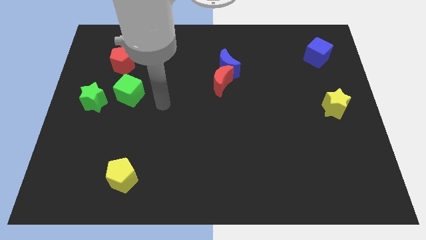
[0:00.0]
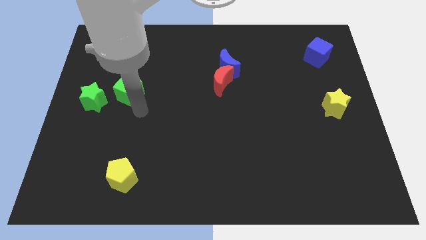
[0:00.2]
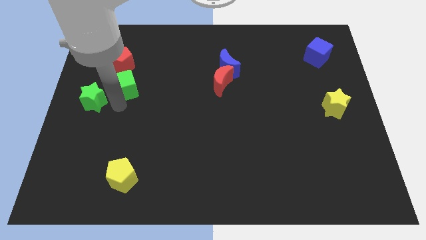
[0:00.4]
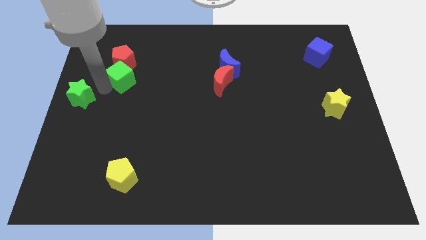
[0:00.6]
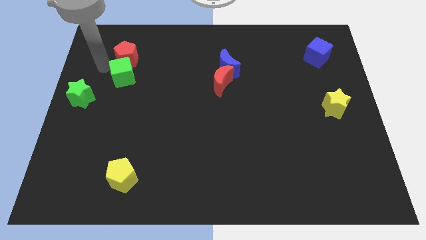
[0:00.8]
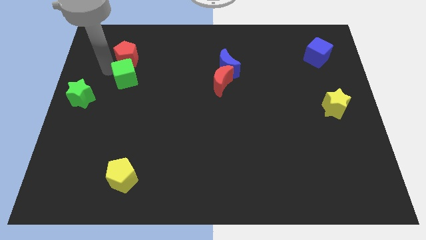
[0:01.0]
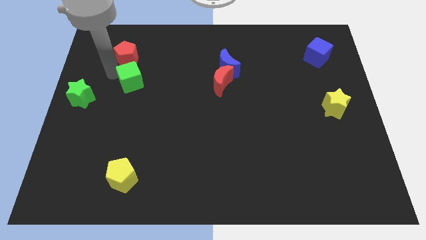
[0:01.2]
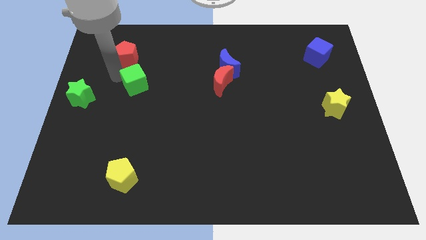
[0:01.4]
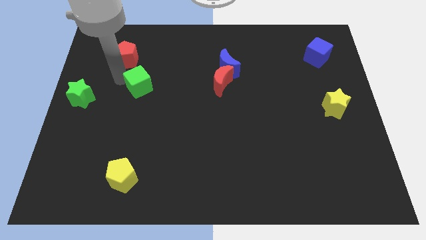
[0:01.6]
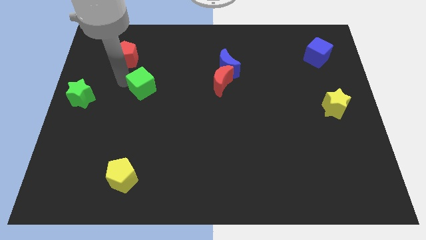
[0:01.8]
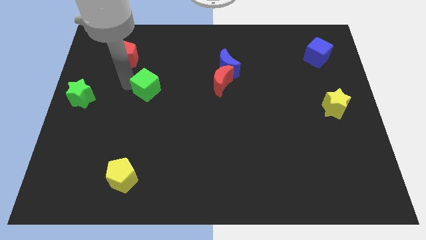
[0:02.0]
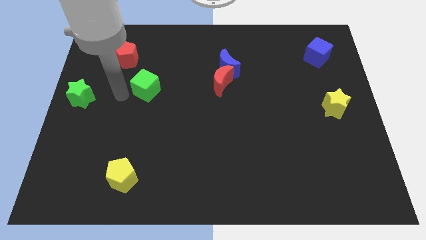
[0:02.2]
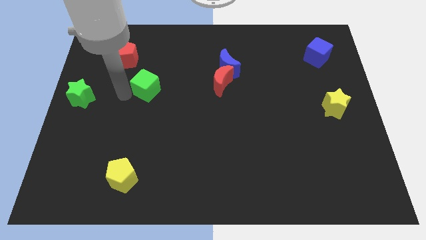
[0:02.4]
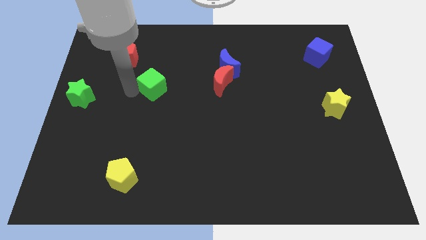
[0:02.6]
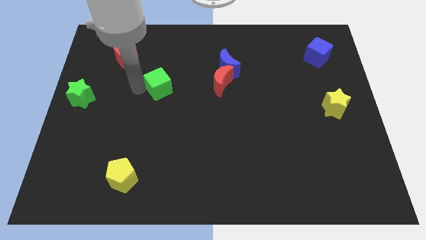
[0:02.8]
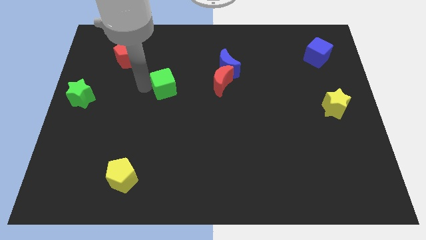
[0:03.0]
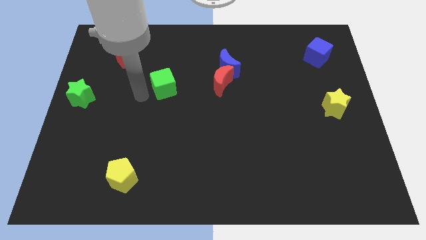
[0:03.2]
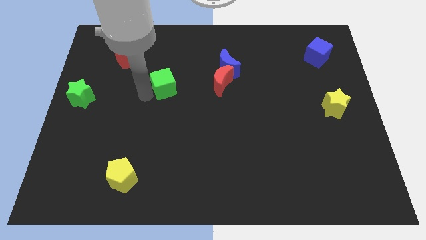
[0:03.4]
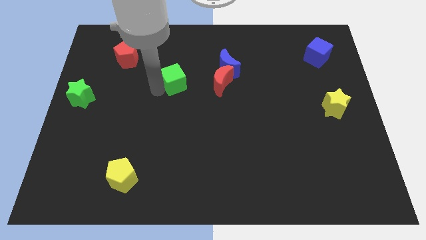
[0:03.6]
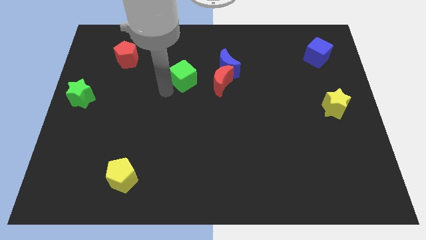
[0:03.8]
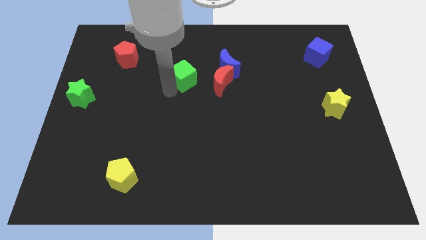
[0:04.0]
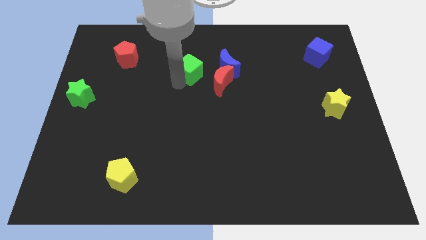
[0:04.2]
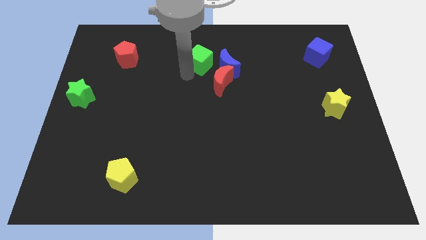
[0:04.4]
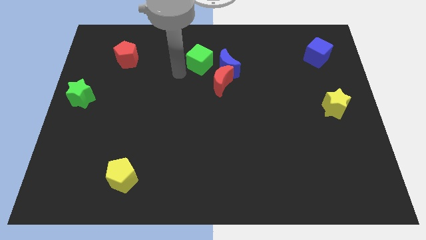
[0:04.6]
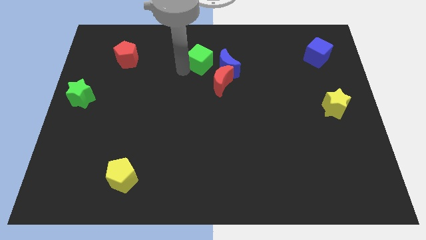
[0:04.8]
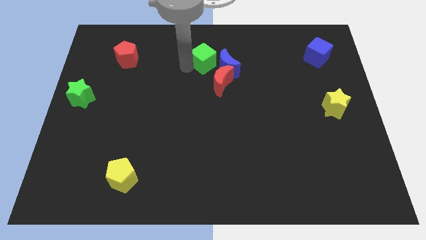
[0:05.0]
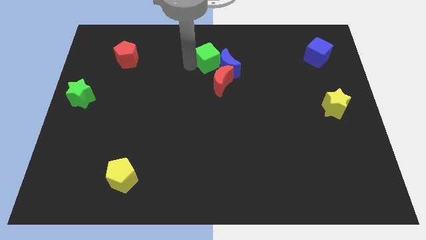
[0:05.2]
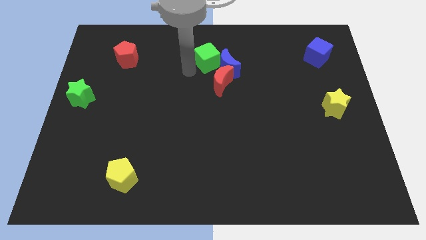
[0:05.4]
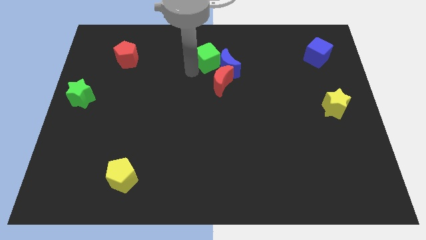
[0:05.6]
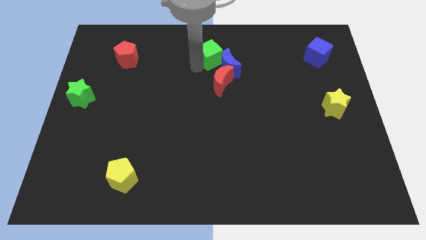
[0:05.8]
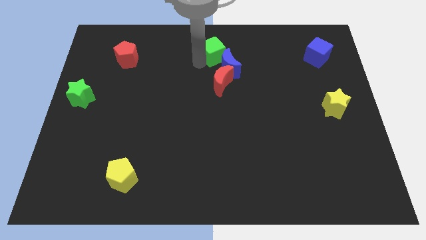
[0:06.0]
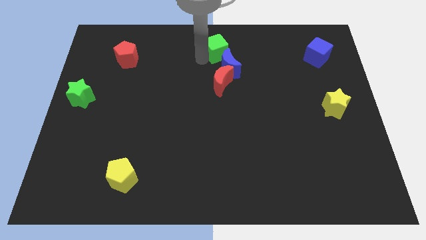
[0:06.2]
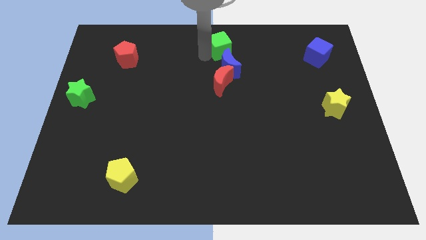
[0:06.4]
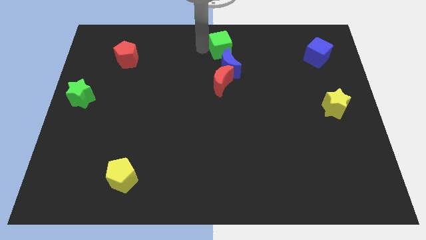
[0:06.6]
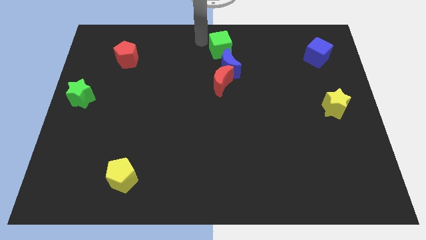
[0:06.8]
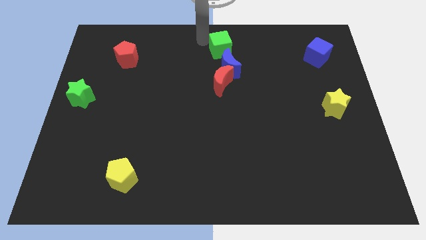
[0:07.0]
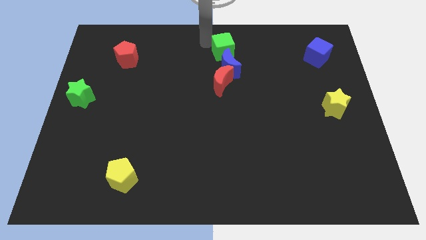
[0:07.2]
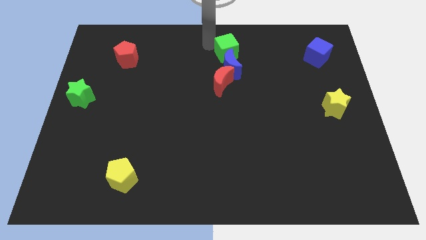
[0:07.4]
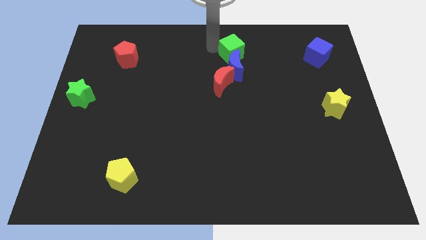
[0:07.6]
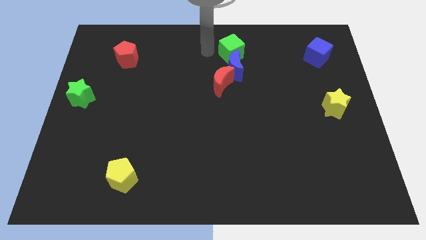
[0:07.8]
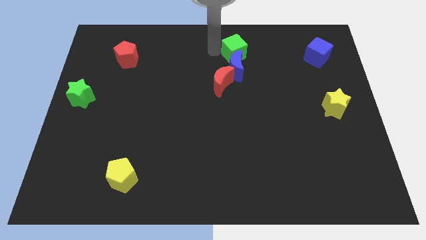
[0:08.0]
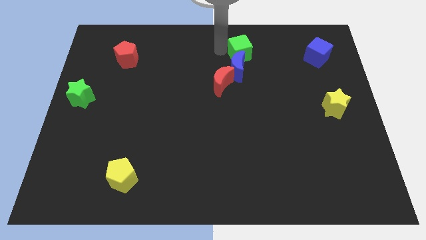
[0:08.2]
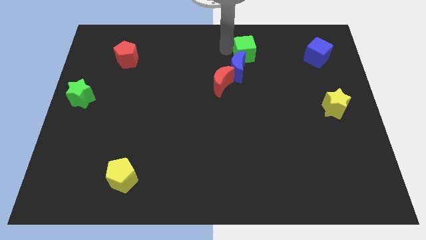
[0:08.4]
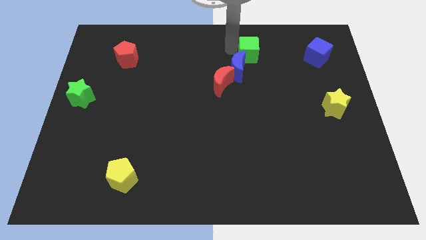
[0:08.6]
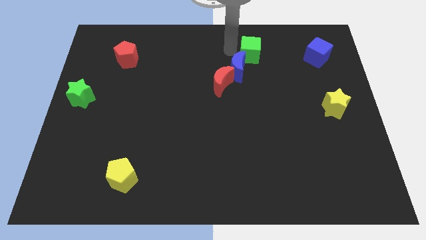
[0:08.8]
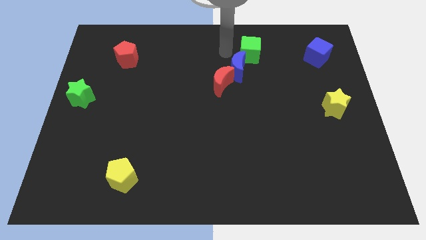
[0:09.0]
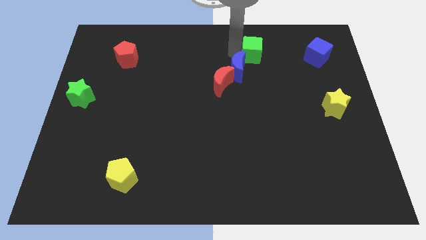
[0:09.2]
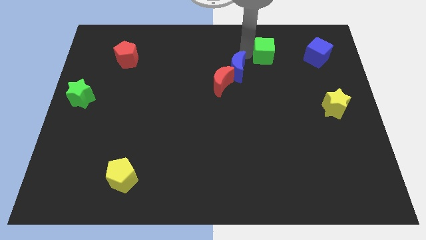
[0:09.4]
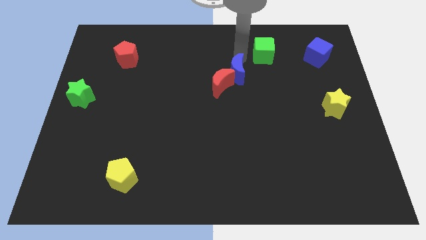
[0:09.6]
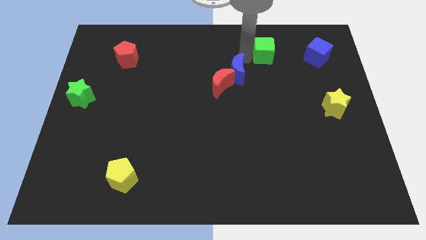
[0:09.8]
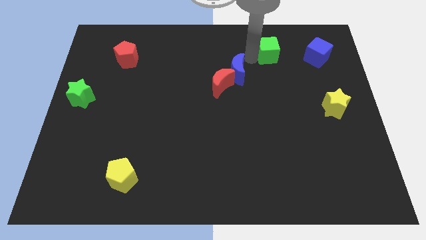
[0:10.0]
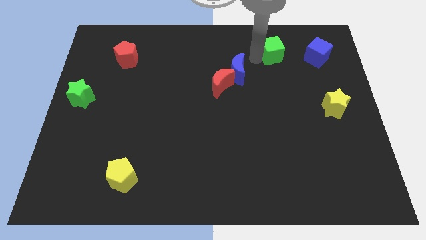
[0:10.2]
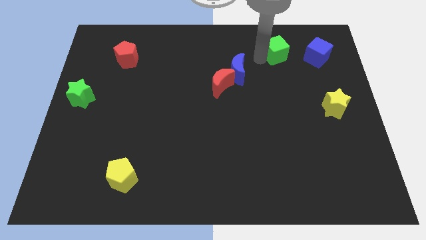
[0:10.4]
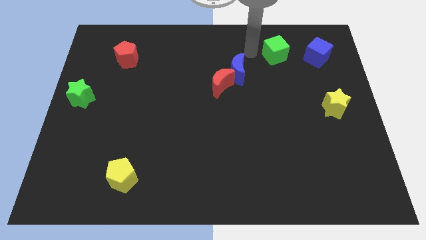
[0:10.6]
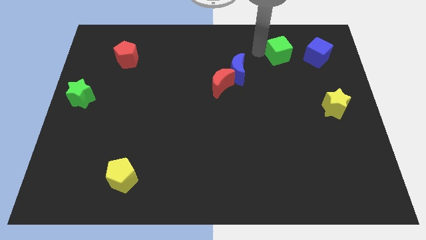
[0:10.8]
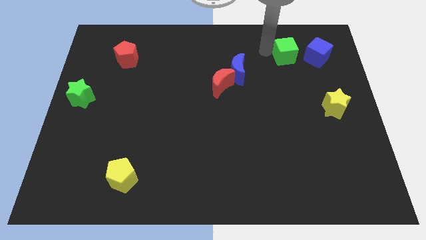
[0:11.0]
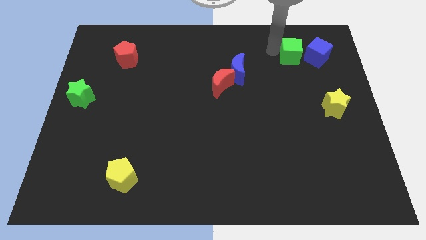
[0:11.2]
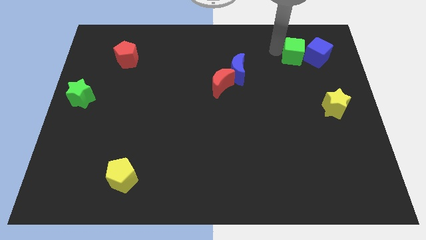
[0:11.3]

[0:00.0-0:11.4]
slide the green cube towards the blue cube

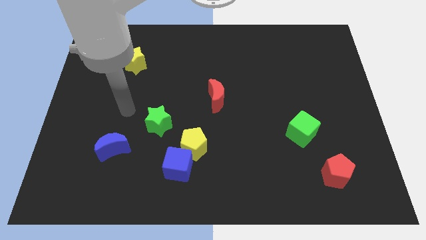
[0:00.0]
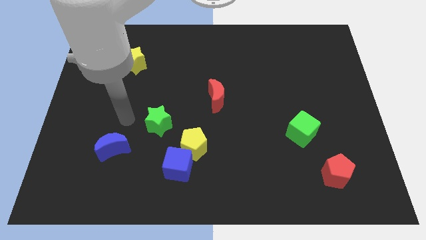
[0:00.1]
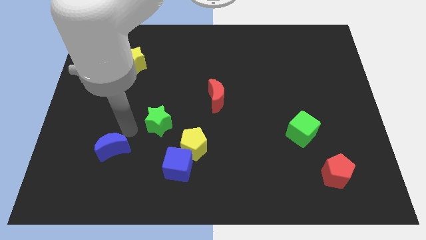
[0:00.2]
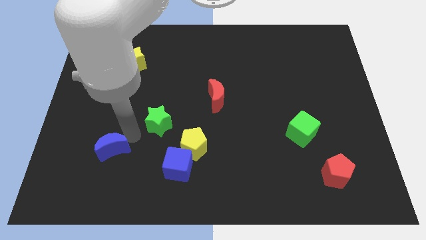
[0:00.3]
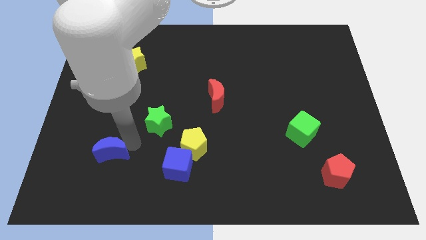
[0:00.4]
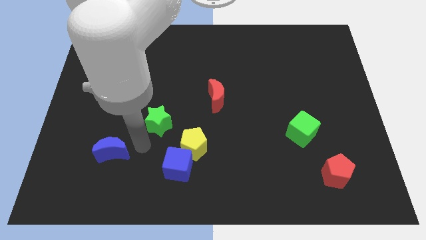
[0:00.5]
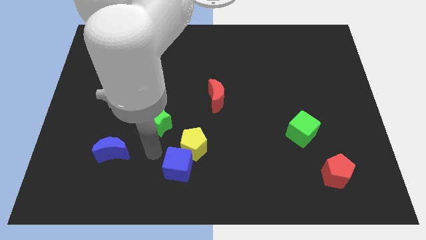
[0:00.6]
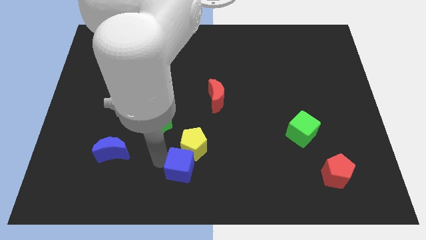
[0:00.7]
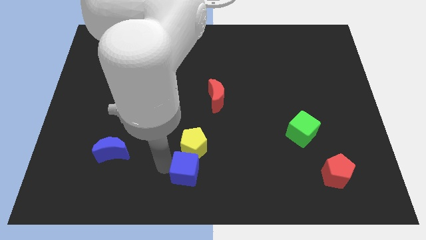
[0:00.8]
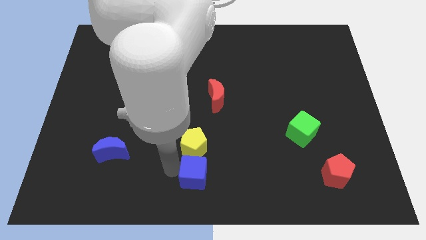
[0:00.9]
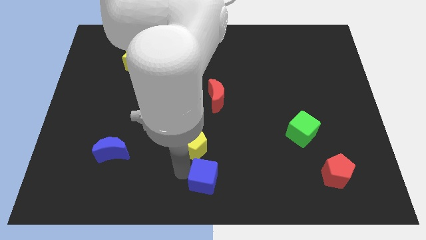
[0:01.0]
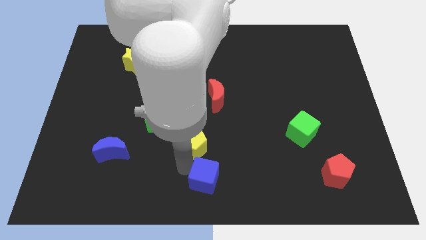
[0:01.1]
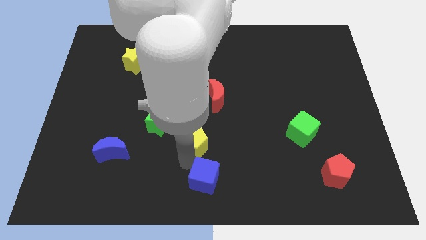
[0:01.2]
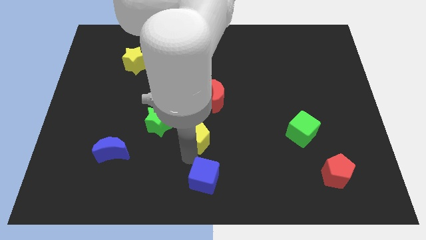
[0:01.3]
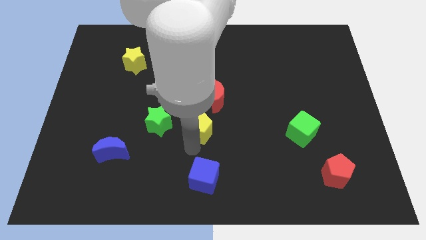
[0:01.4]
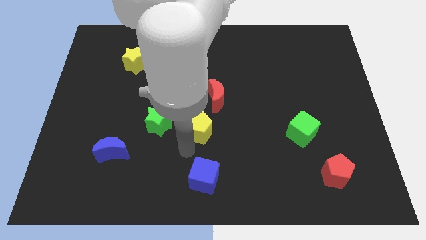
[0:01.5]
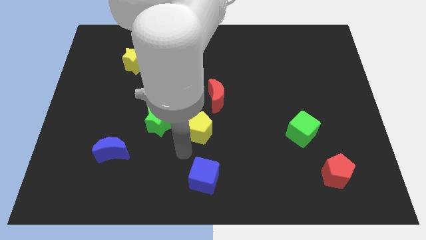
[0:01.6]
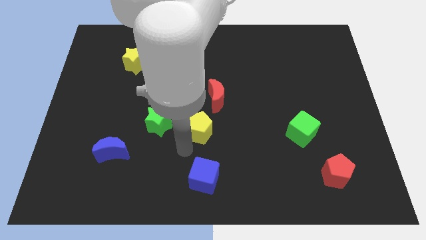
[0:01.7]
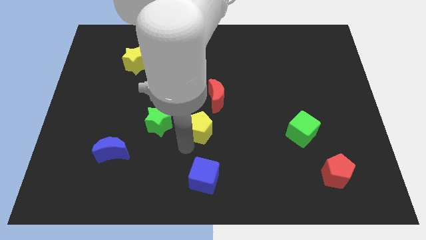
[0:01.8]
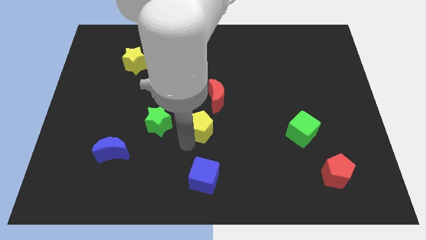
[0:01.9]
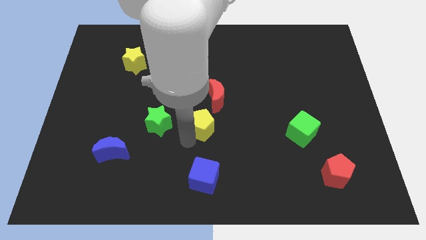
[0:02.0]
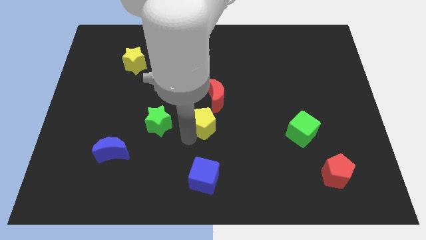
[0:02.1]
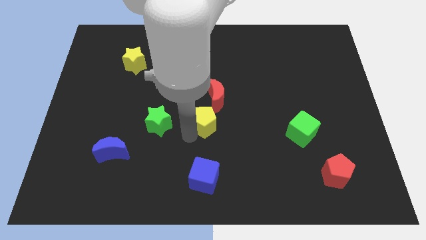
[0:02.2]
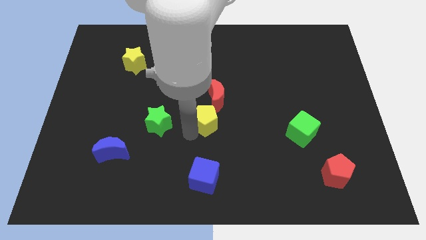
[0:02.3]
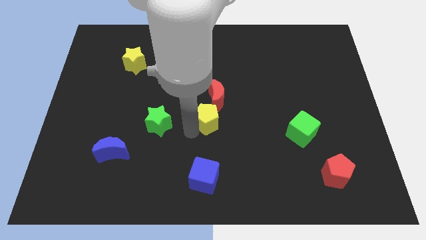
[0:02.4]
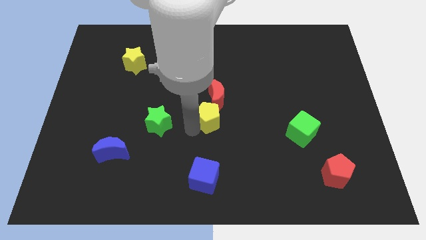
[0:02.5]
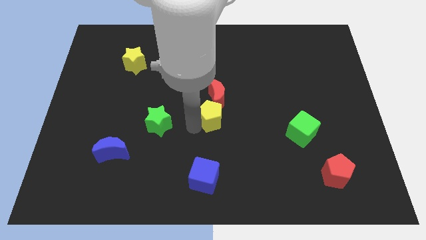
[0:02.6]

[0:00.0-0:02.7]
push the yellow pentagon close to the red moon
